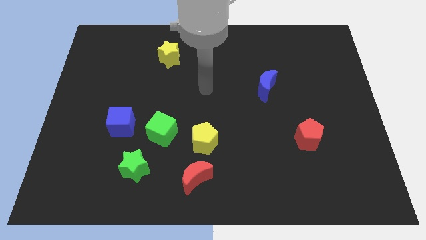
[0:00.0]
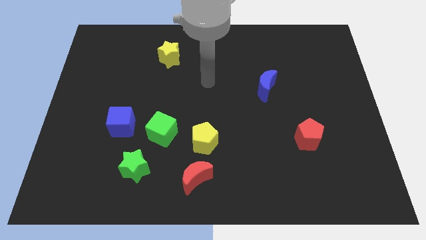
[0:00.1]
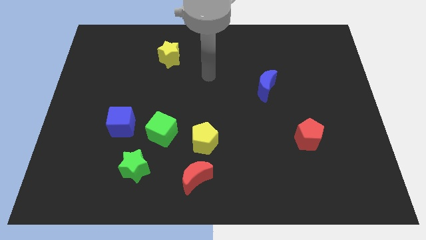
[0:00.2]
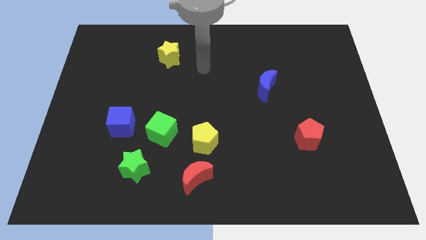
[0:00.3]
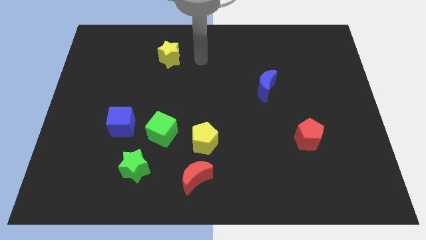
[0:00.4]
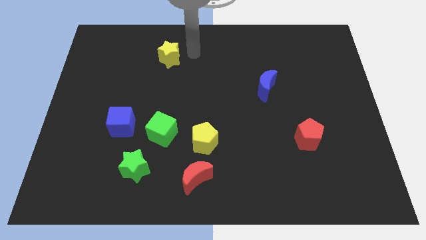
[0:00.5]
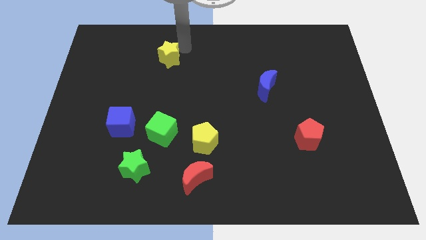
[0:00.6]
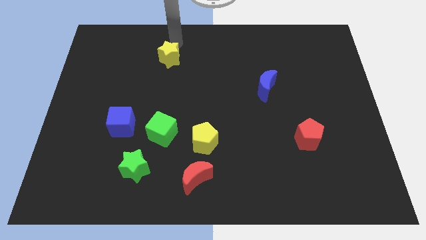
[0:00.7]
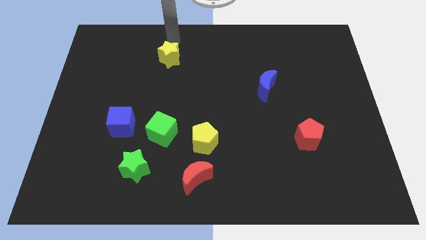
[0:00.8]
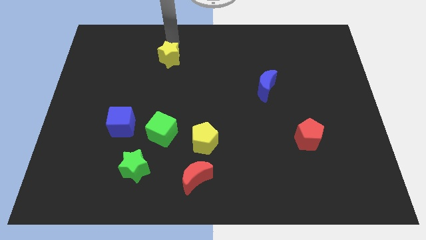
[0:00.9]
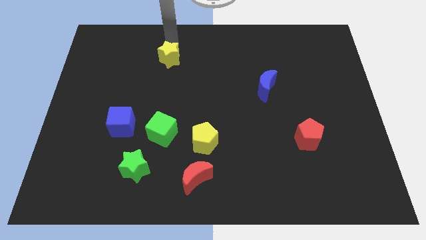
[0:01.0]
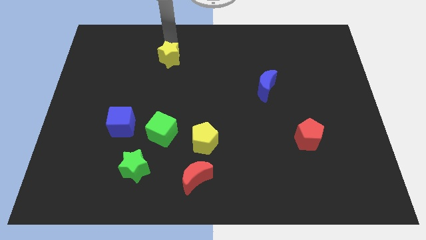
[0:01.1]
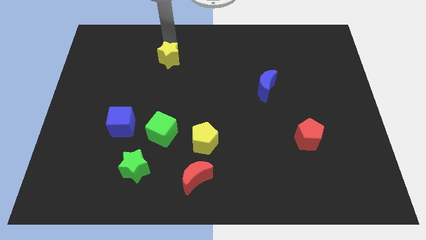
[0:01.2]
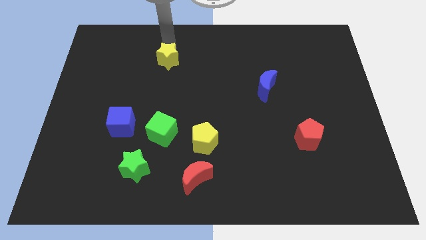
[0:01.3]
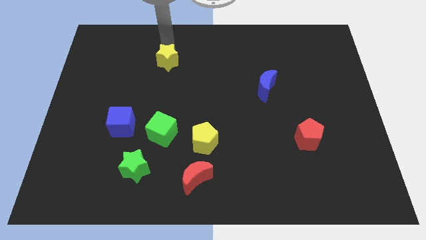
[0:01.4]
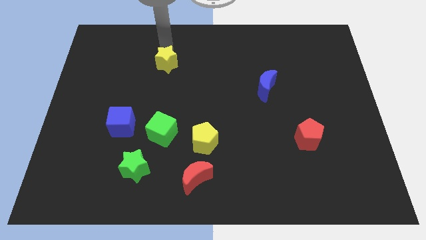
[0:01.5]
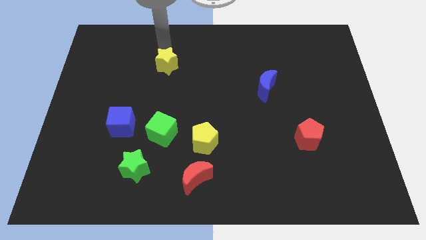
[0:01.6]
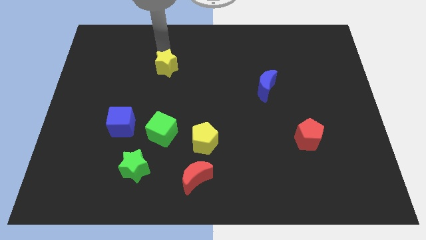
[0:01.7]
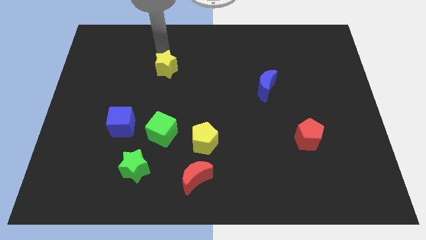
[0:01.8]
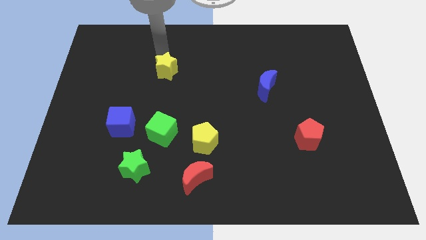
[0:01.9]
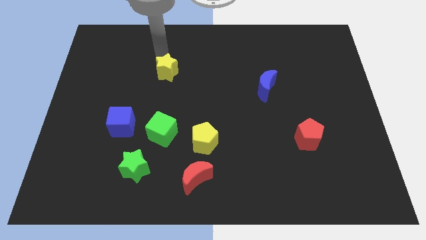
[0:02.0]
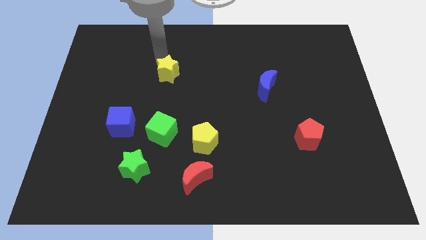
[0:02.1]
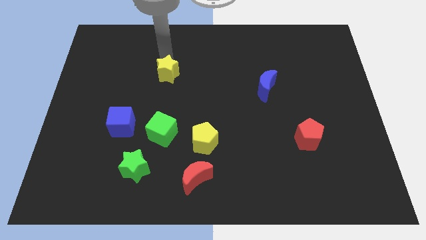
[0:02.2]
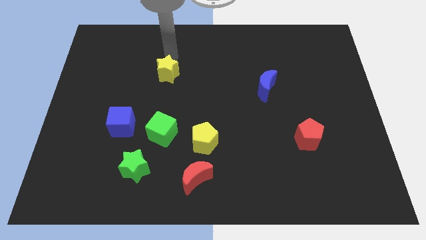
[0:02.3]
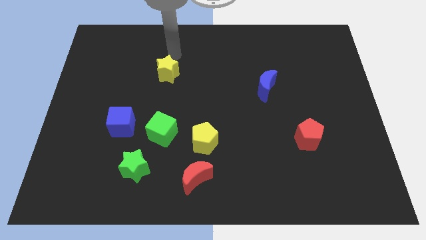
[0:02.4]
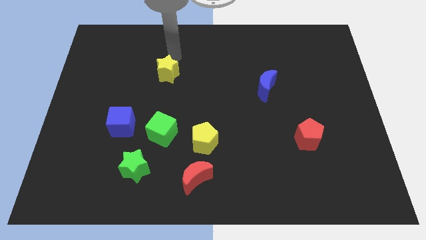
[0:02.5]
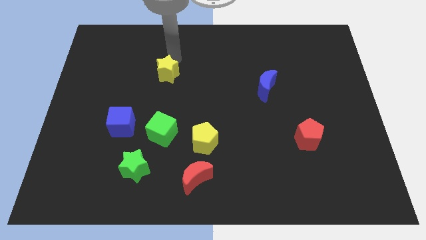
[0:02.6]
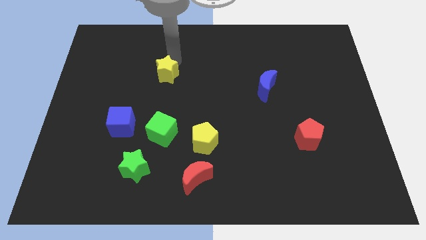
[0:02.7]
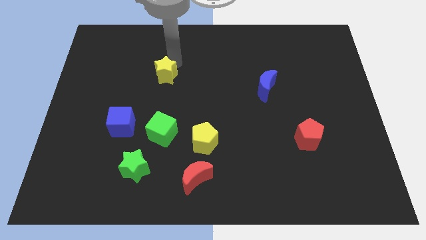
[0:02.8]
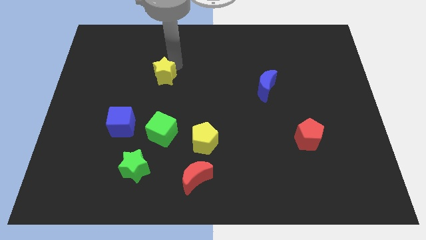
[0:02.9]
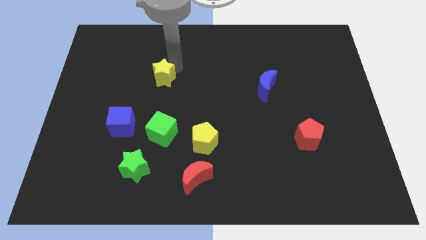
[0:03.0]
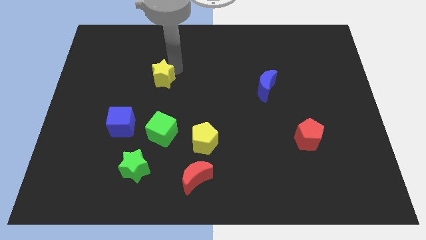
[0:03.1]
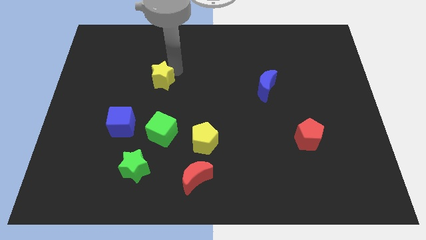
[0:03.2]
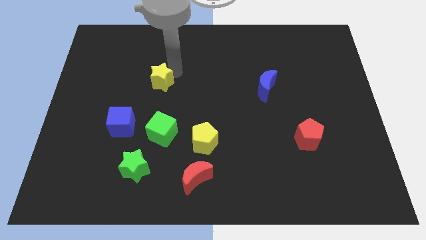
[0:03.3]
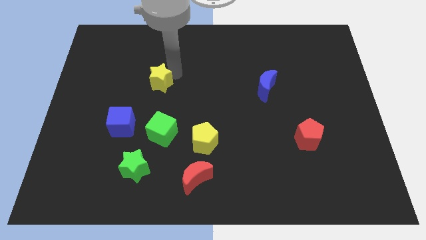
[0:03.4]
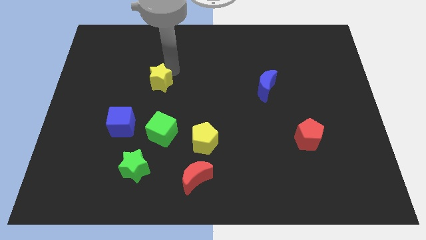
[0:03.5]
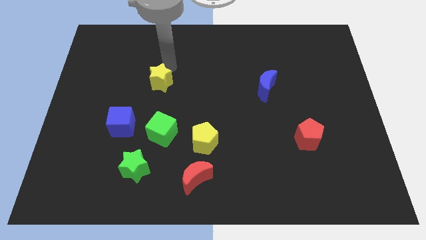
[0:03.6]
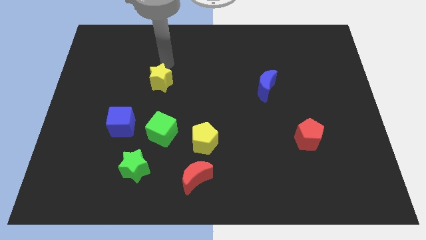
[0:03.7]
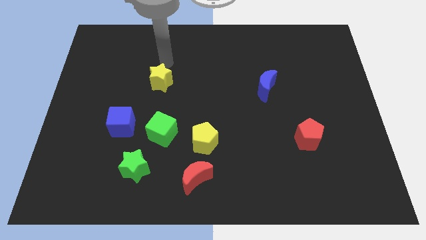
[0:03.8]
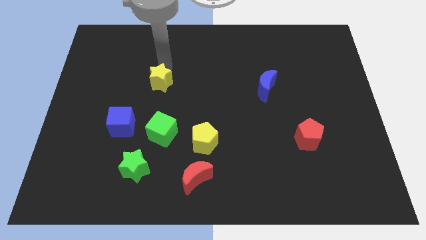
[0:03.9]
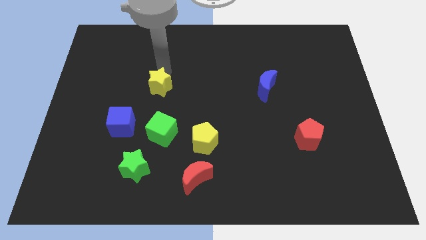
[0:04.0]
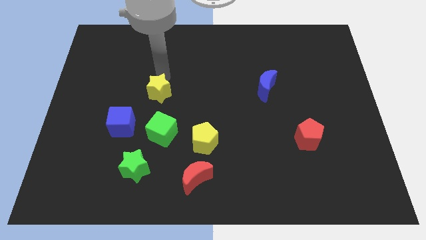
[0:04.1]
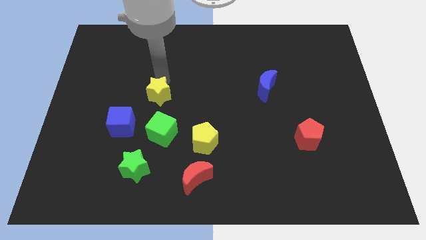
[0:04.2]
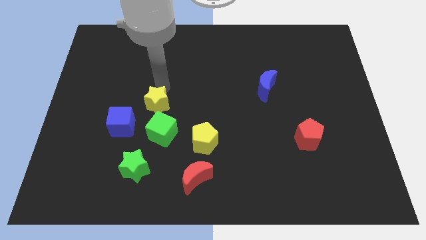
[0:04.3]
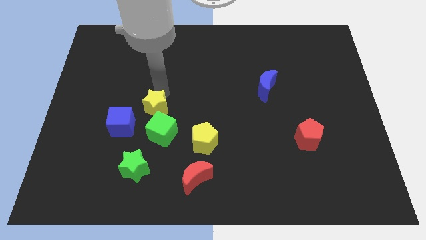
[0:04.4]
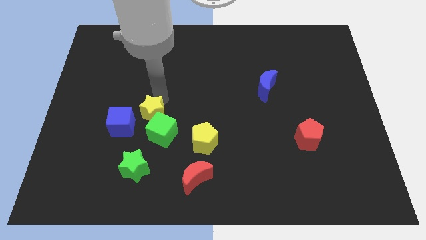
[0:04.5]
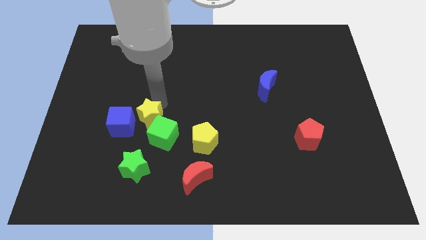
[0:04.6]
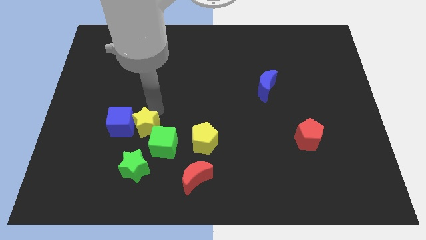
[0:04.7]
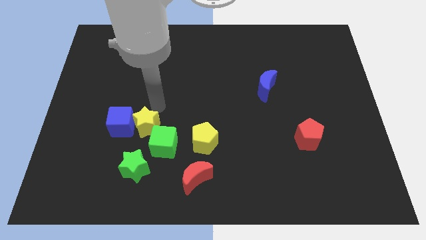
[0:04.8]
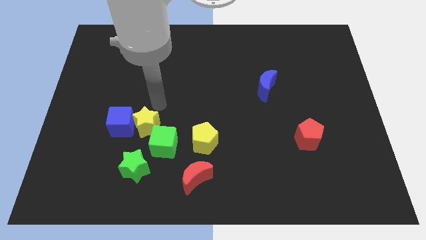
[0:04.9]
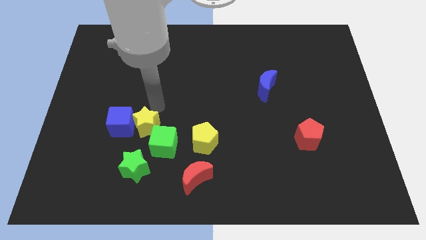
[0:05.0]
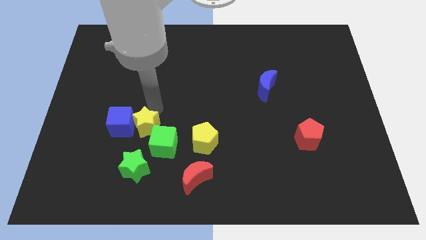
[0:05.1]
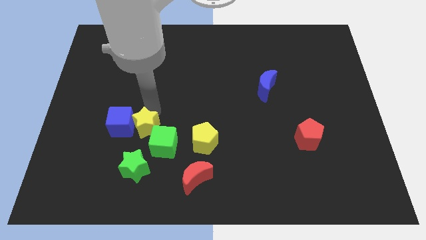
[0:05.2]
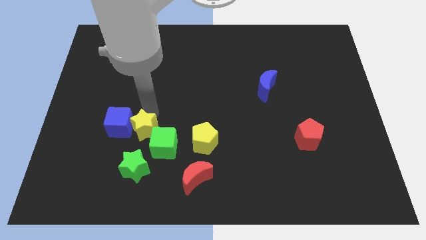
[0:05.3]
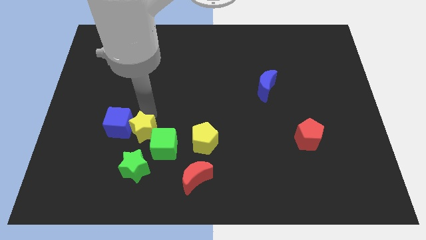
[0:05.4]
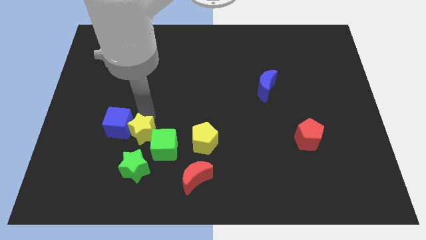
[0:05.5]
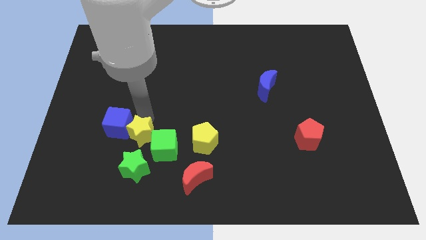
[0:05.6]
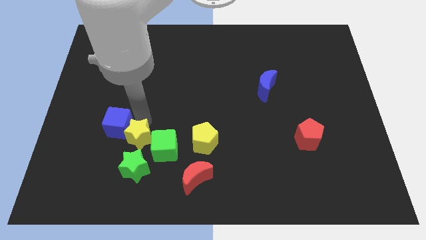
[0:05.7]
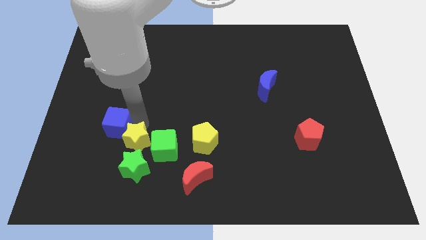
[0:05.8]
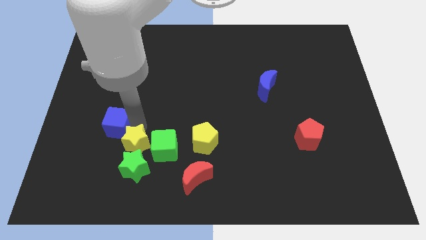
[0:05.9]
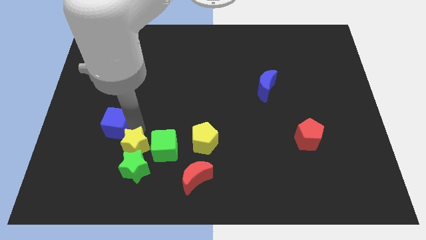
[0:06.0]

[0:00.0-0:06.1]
put the yellow star close to the green star

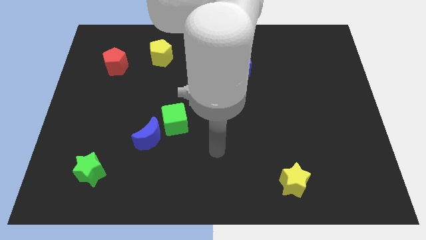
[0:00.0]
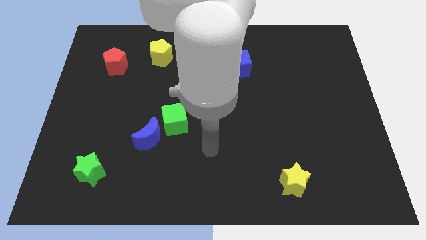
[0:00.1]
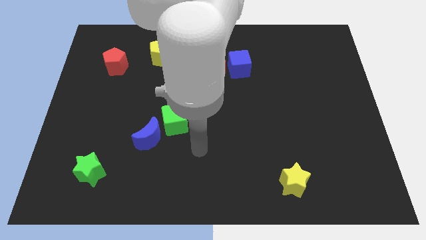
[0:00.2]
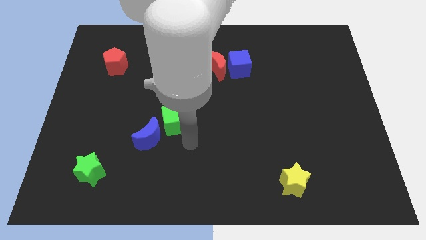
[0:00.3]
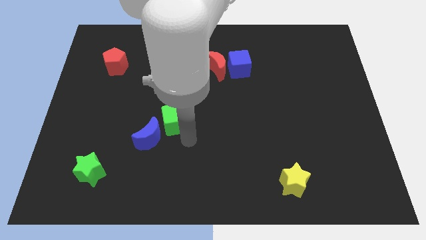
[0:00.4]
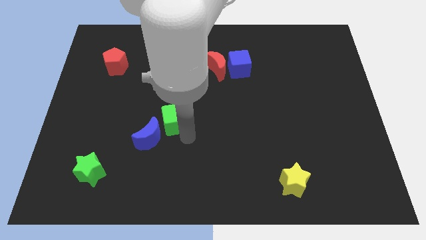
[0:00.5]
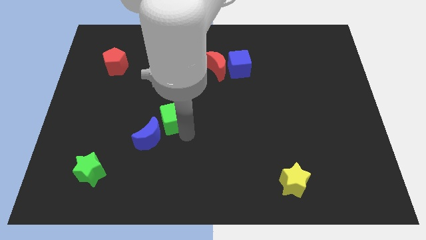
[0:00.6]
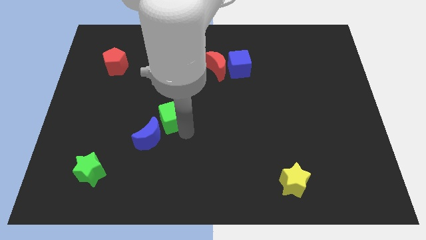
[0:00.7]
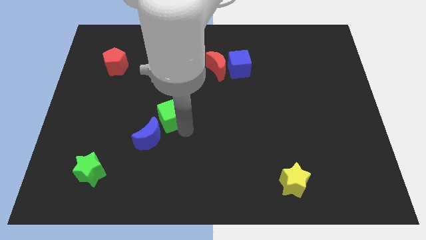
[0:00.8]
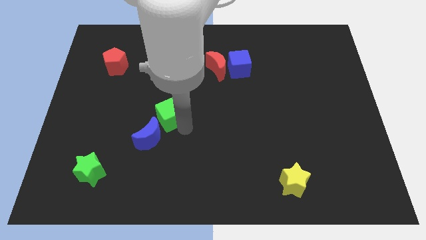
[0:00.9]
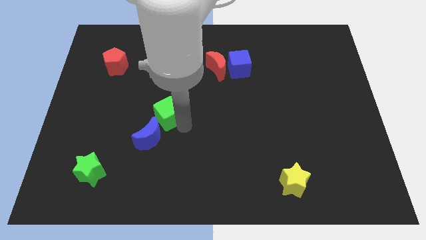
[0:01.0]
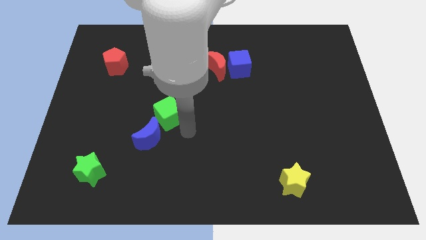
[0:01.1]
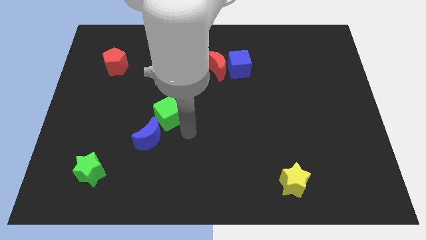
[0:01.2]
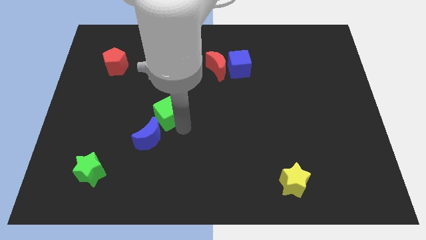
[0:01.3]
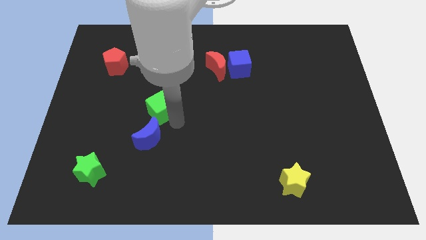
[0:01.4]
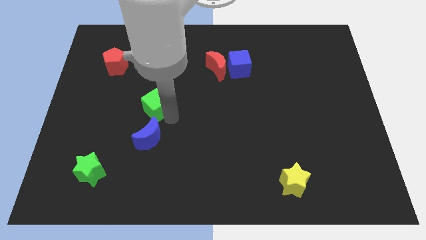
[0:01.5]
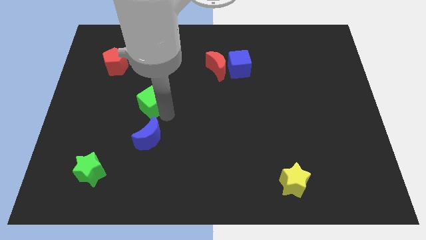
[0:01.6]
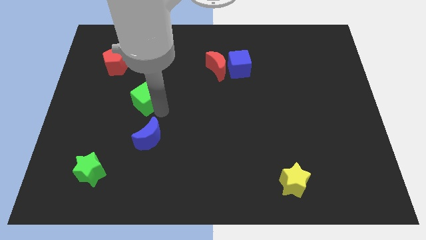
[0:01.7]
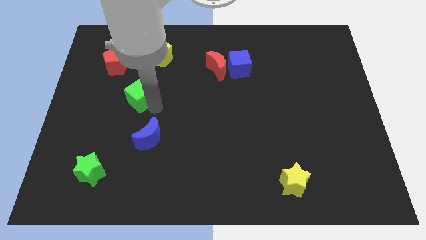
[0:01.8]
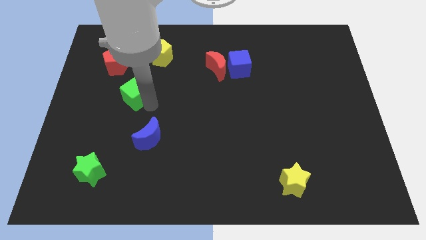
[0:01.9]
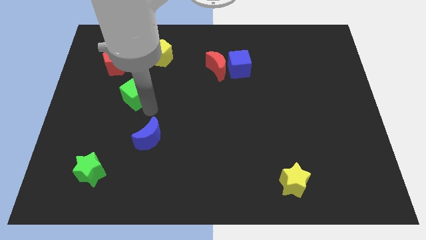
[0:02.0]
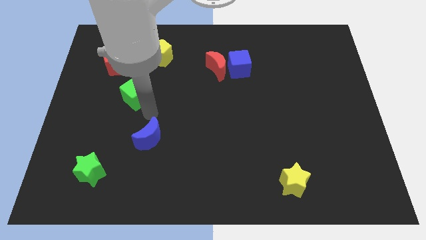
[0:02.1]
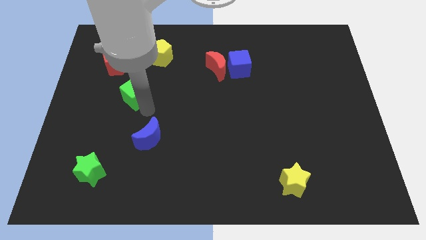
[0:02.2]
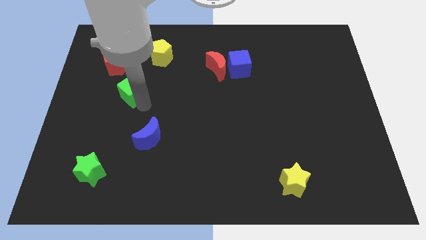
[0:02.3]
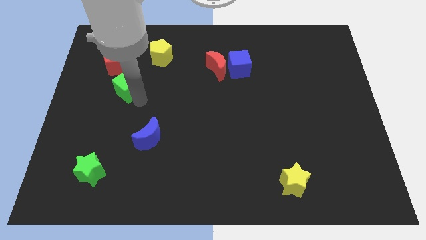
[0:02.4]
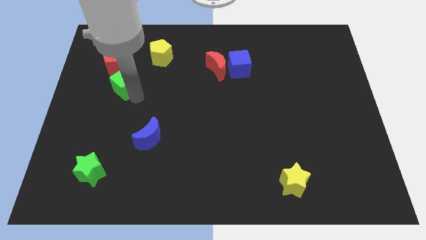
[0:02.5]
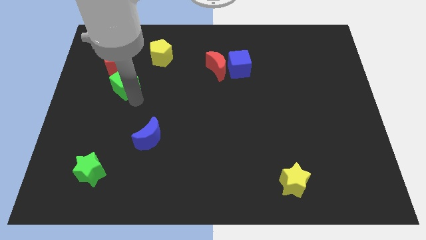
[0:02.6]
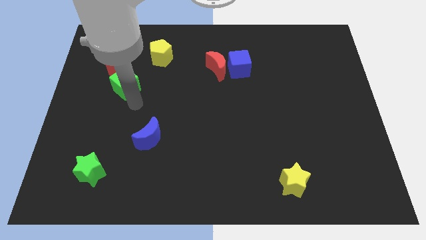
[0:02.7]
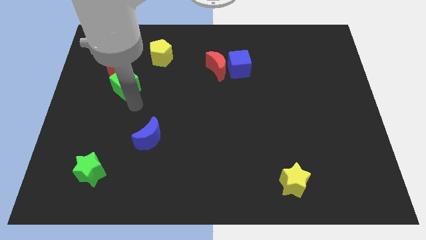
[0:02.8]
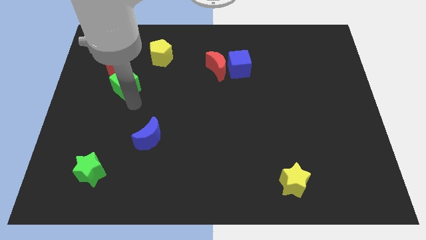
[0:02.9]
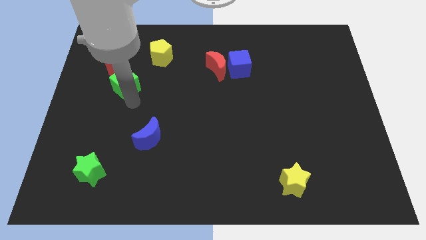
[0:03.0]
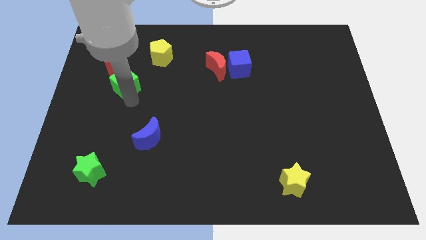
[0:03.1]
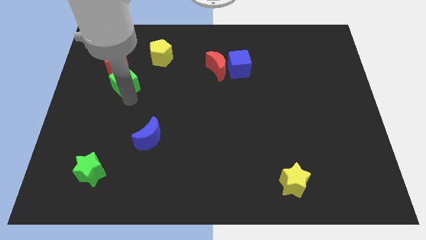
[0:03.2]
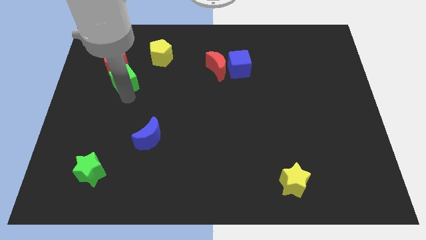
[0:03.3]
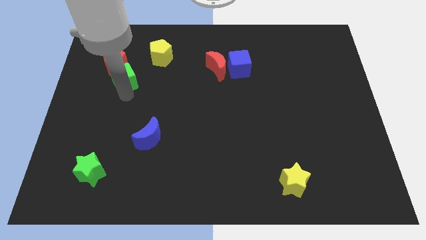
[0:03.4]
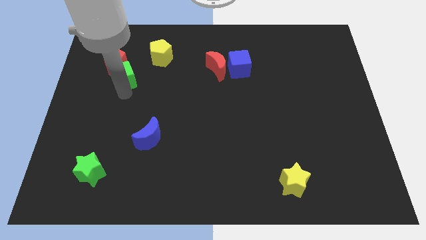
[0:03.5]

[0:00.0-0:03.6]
slide the green cube to the red pentagon
